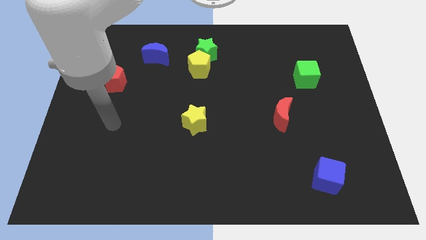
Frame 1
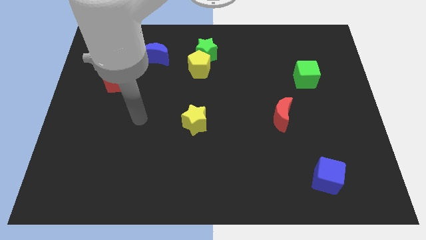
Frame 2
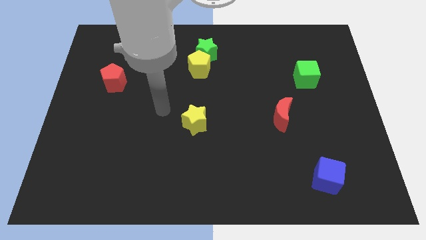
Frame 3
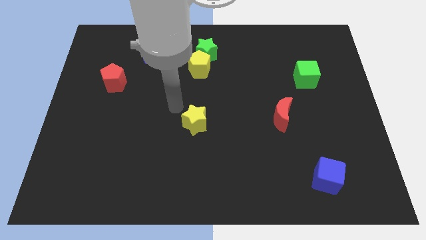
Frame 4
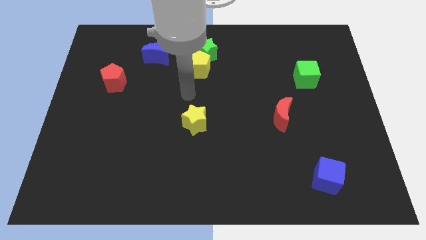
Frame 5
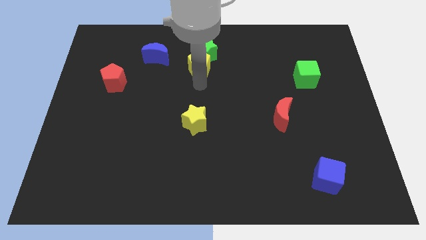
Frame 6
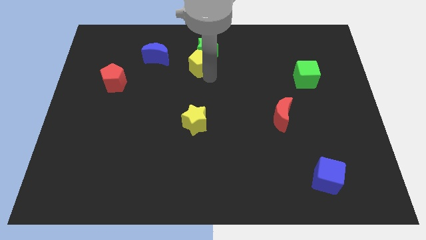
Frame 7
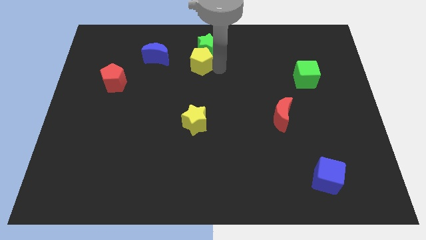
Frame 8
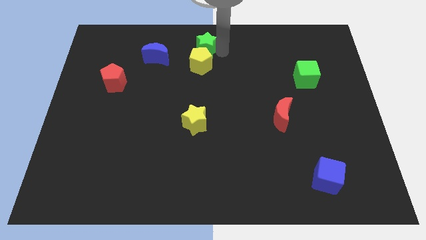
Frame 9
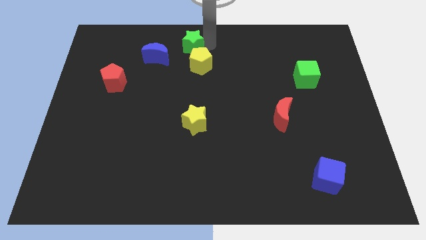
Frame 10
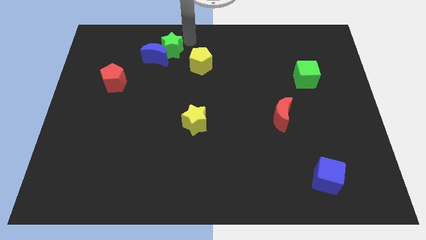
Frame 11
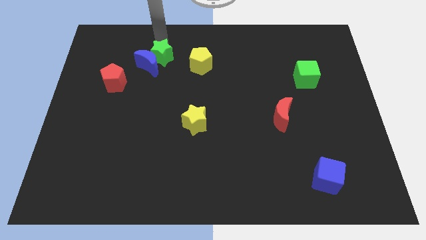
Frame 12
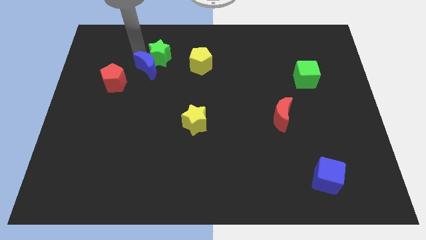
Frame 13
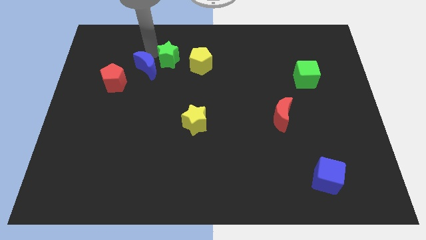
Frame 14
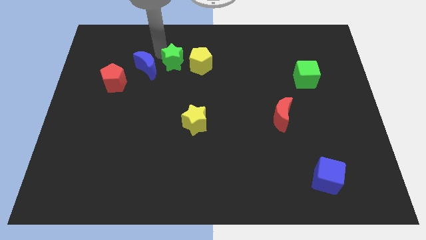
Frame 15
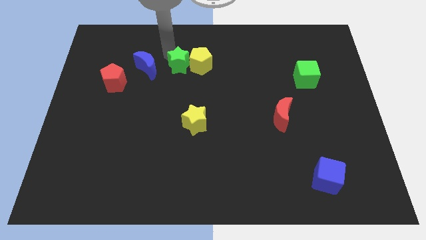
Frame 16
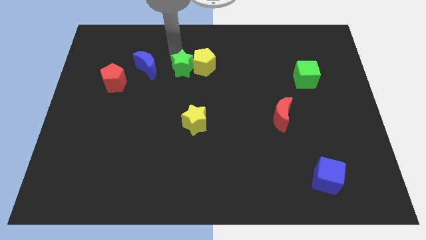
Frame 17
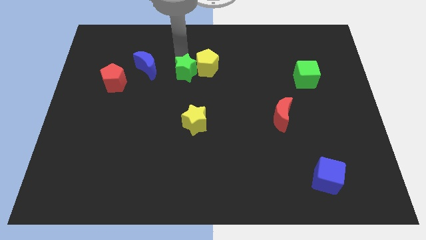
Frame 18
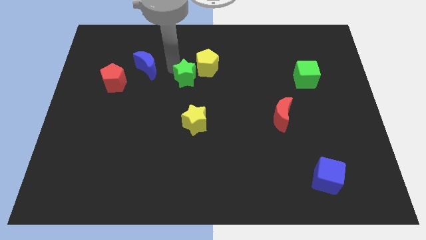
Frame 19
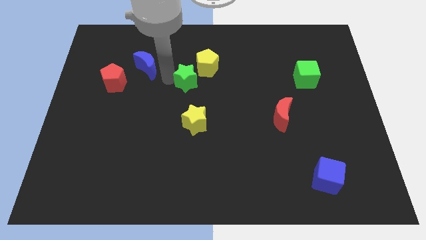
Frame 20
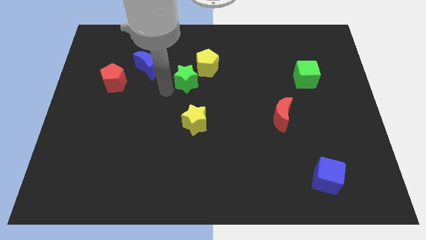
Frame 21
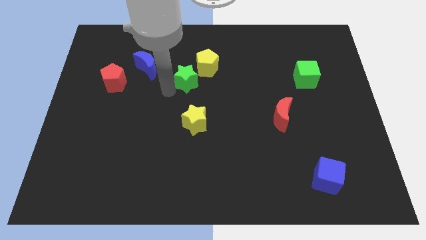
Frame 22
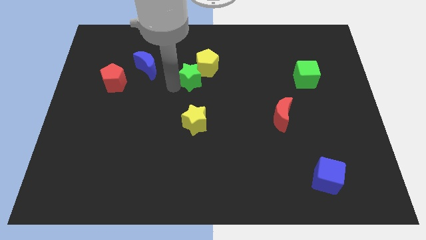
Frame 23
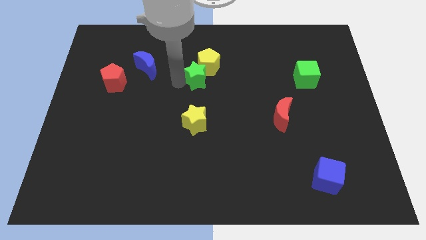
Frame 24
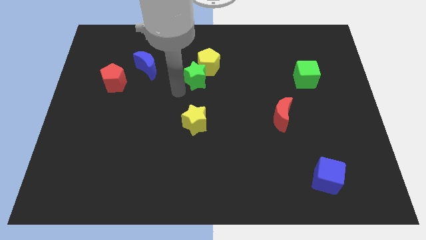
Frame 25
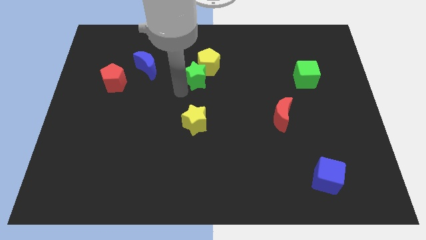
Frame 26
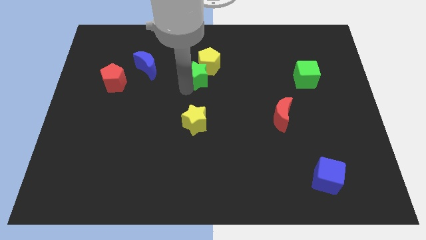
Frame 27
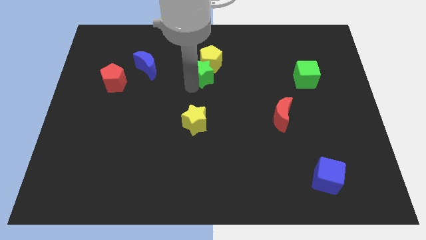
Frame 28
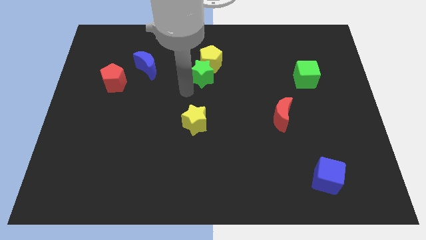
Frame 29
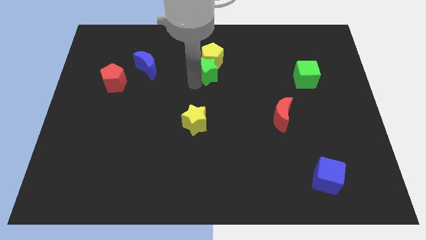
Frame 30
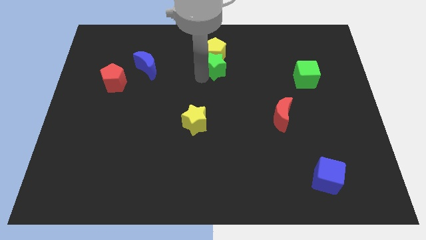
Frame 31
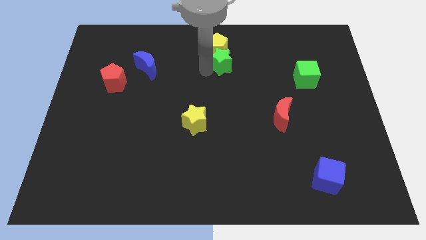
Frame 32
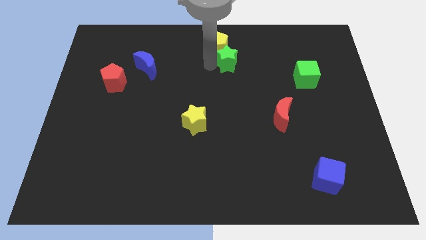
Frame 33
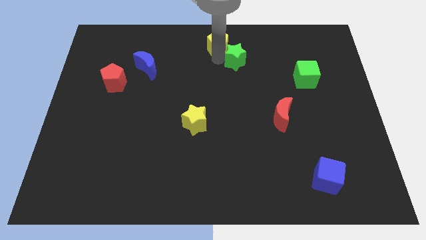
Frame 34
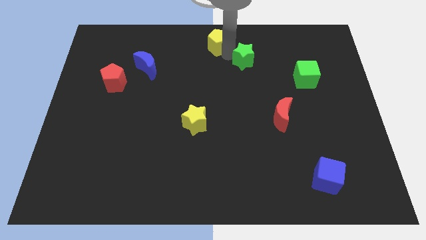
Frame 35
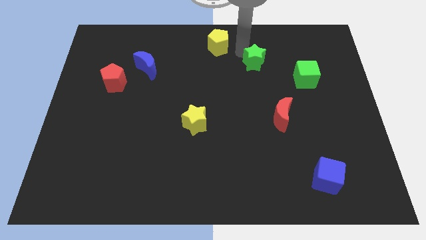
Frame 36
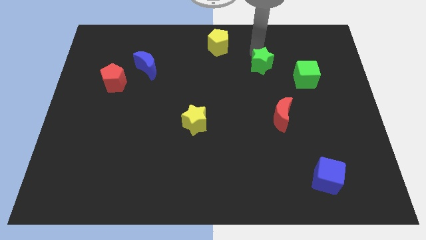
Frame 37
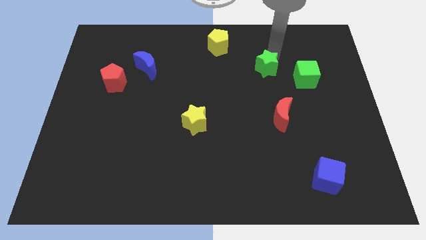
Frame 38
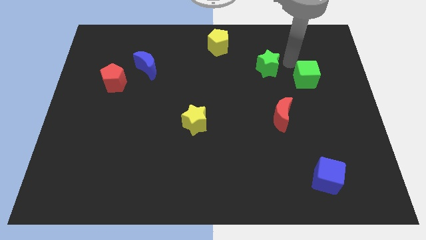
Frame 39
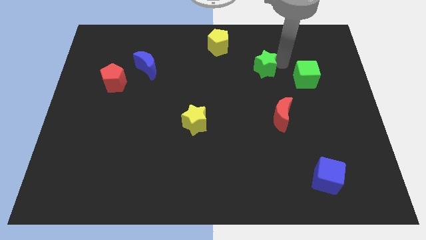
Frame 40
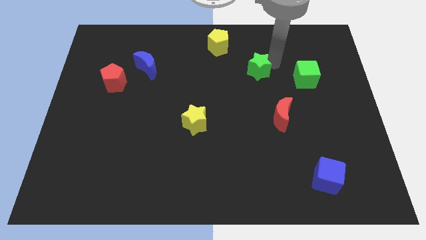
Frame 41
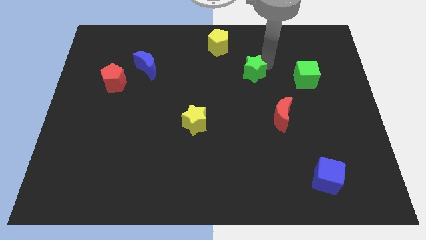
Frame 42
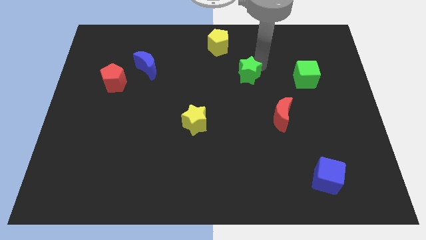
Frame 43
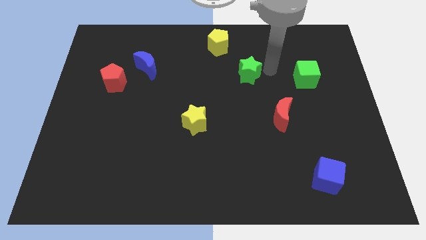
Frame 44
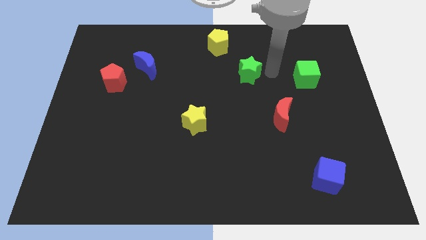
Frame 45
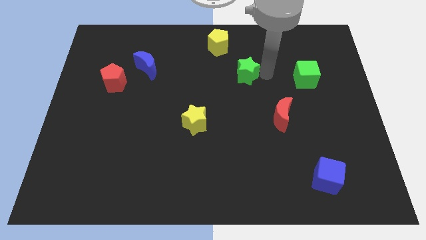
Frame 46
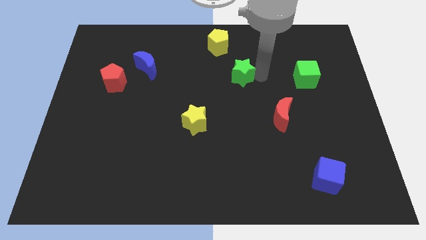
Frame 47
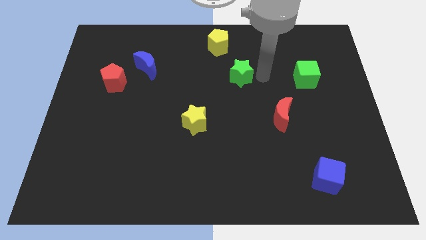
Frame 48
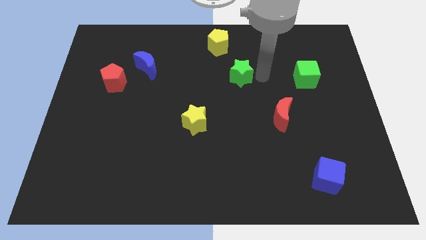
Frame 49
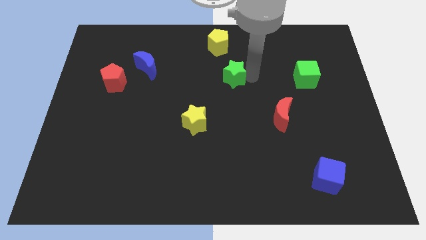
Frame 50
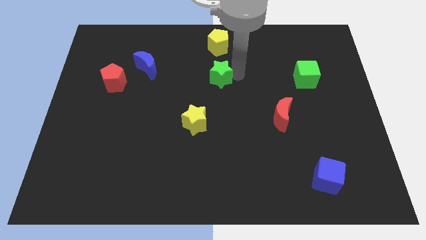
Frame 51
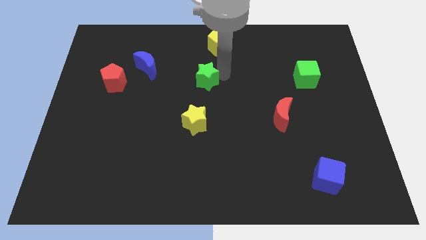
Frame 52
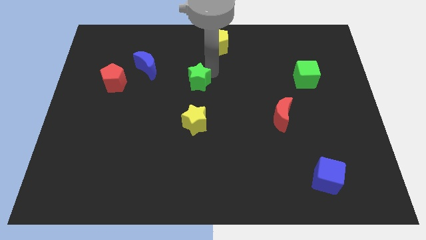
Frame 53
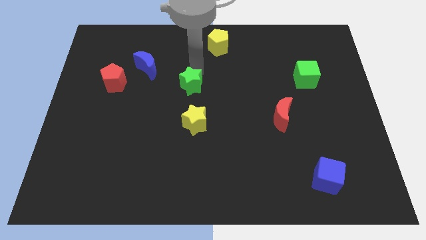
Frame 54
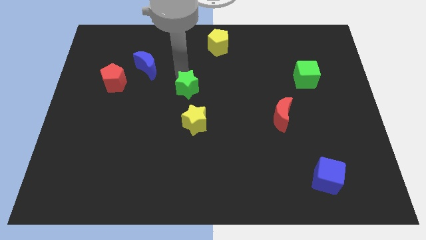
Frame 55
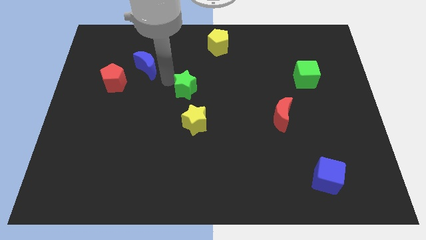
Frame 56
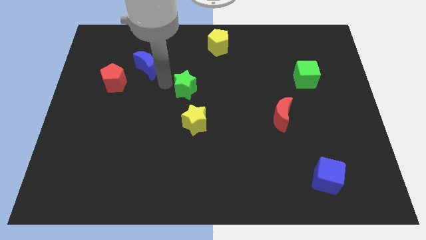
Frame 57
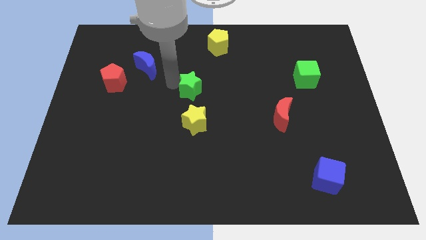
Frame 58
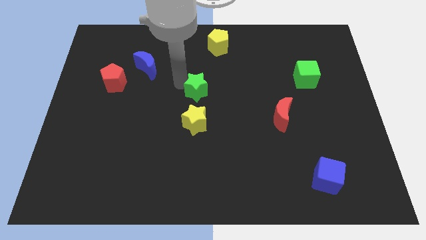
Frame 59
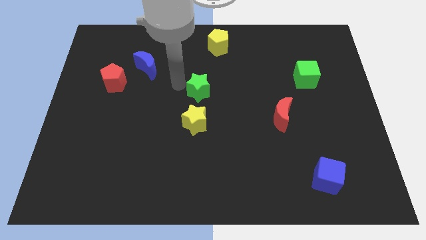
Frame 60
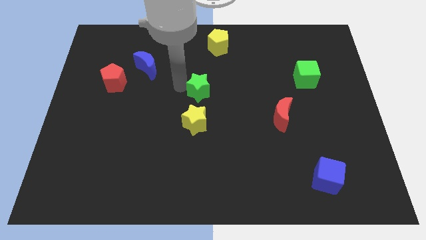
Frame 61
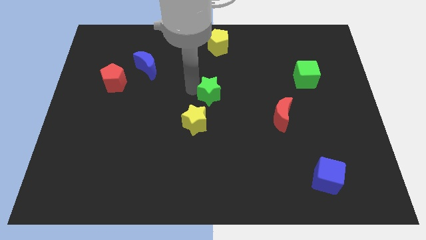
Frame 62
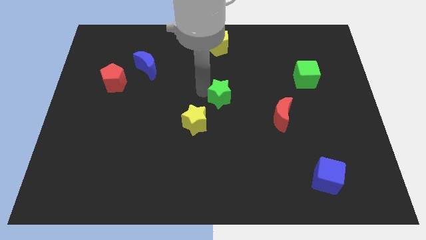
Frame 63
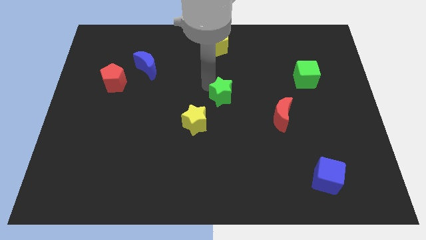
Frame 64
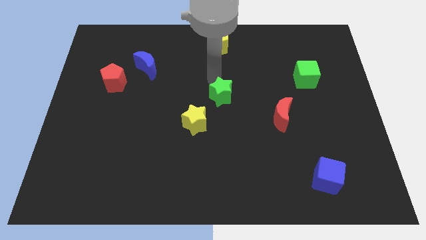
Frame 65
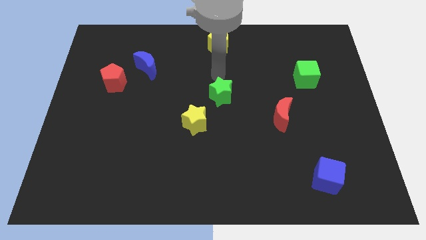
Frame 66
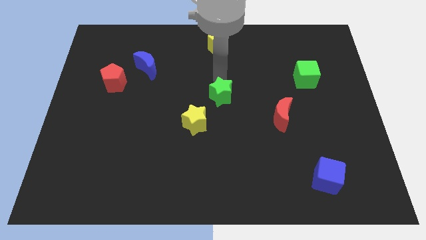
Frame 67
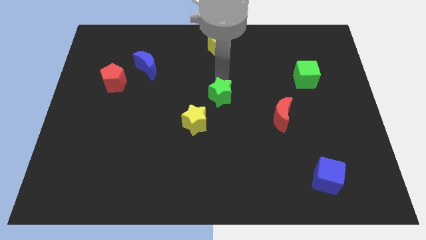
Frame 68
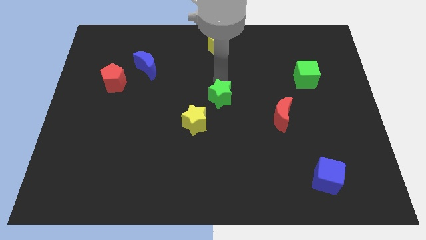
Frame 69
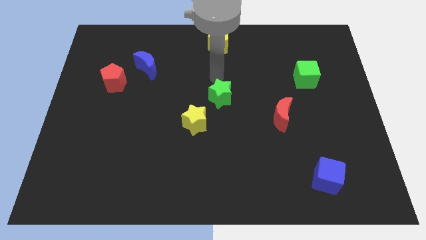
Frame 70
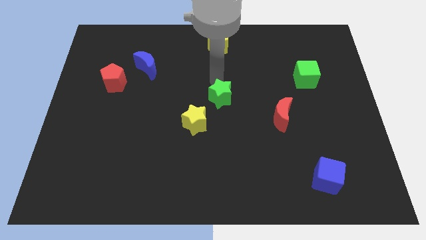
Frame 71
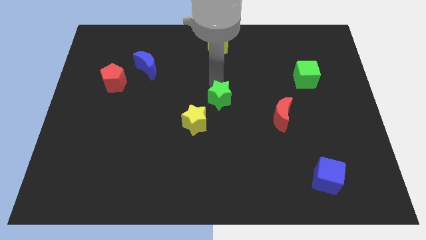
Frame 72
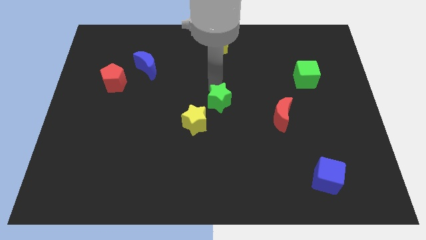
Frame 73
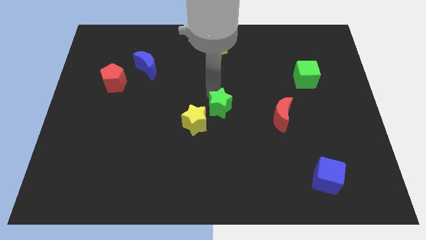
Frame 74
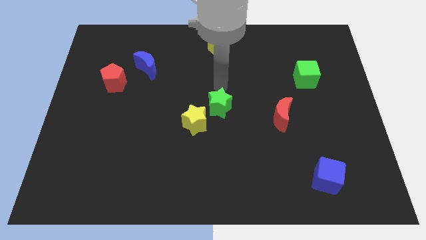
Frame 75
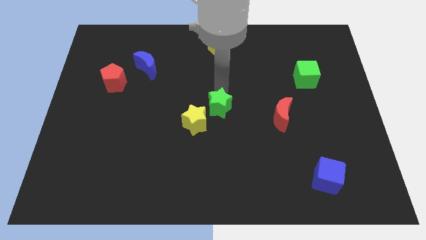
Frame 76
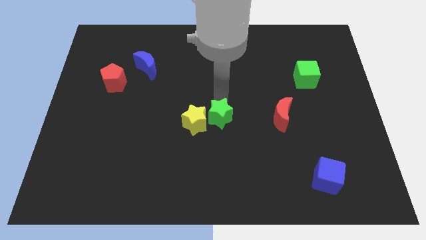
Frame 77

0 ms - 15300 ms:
move the green star downwards
